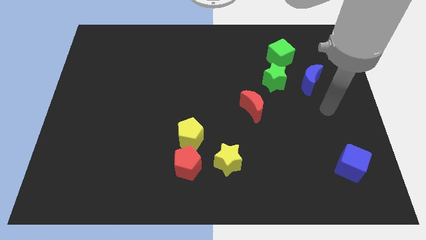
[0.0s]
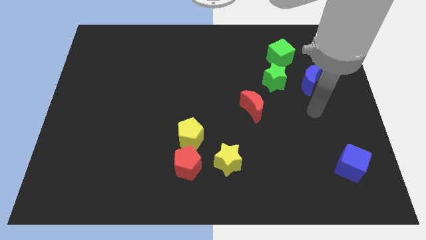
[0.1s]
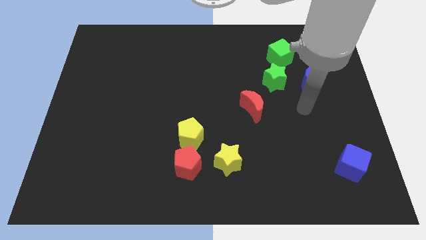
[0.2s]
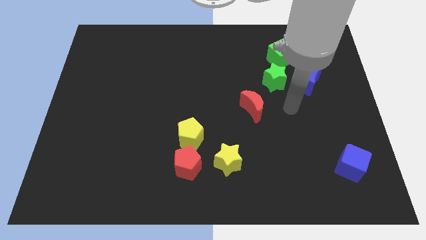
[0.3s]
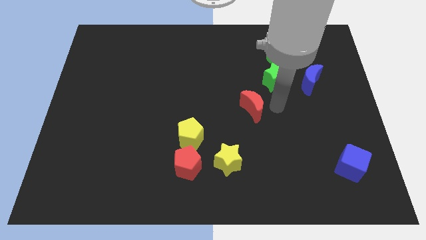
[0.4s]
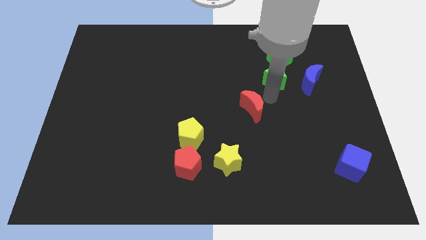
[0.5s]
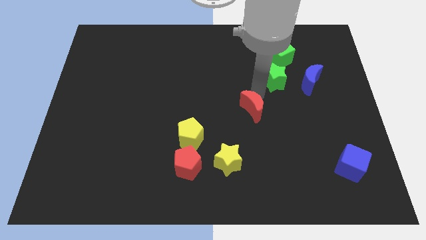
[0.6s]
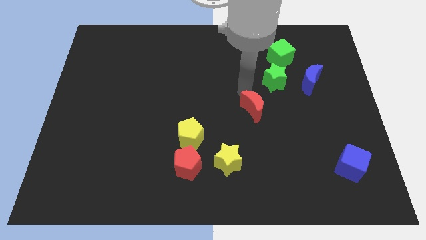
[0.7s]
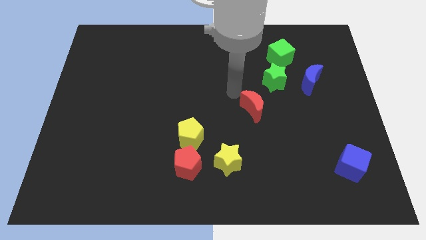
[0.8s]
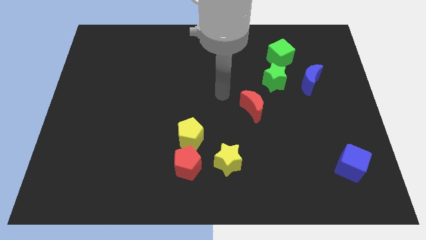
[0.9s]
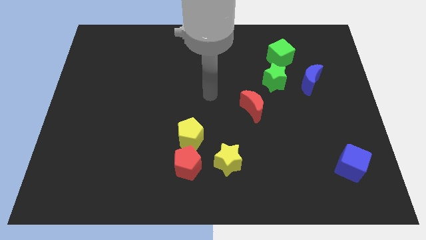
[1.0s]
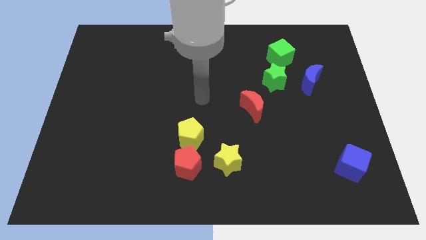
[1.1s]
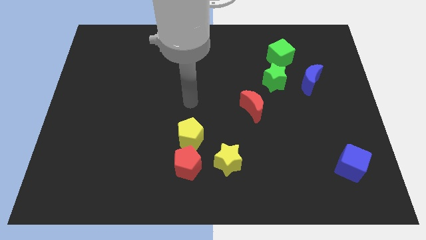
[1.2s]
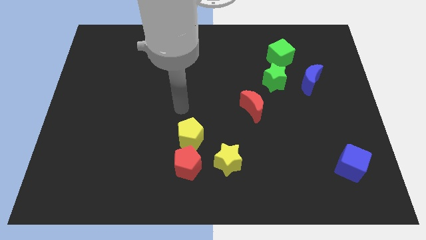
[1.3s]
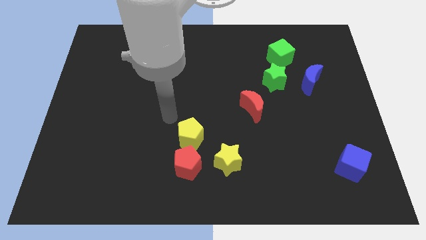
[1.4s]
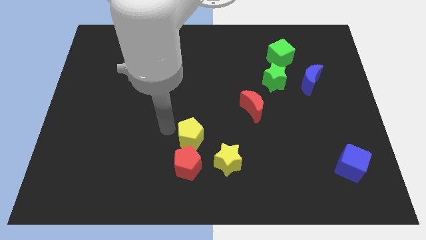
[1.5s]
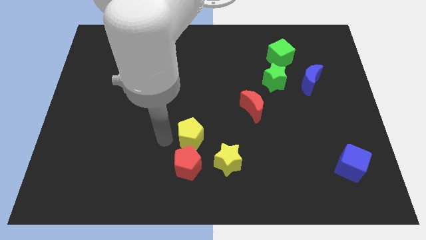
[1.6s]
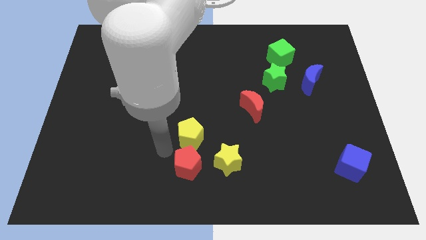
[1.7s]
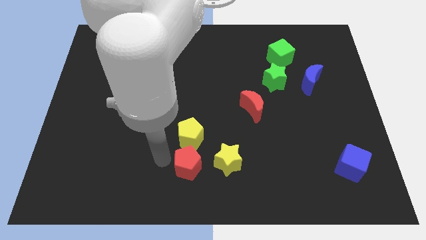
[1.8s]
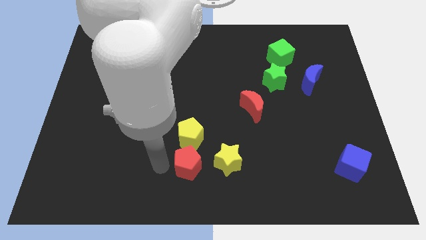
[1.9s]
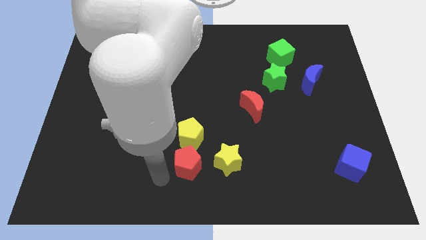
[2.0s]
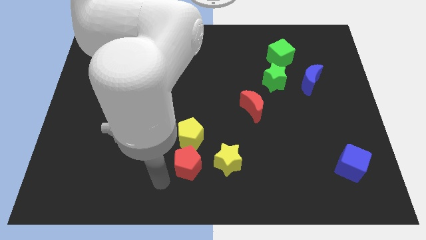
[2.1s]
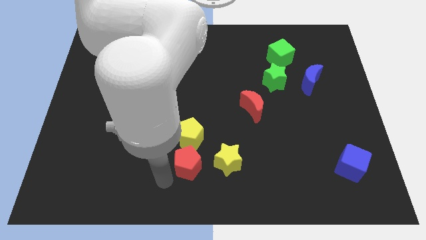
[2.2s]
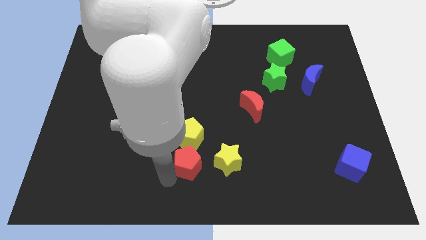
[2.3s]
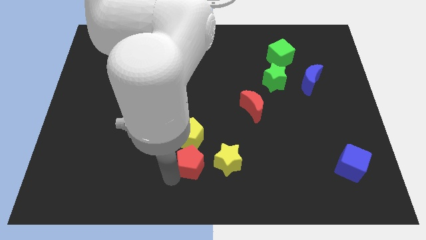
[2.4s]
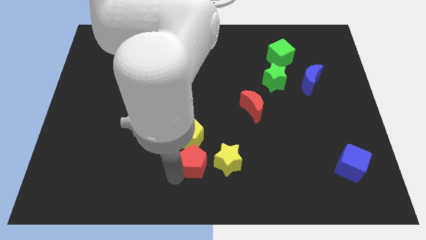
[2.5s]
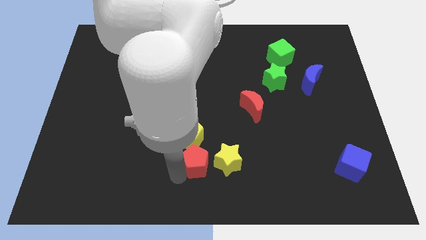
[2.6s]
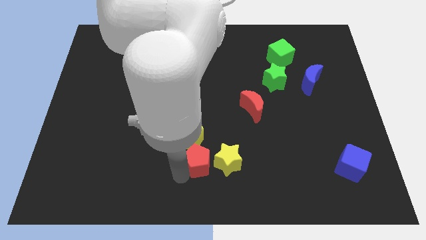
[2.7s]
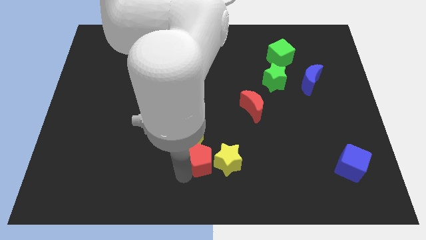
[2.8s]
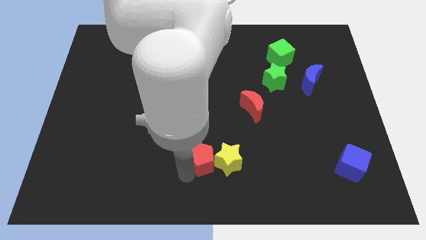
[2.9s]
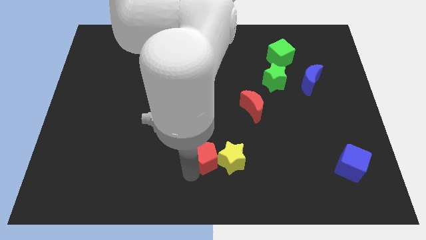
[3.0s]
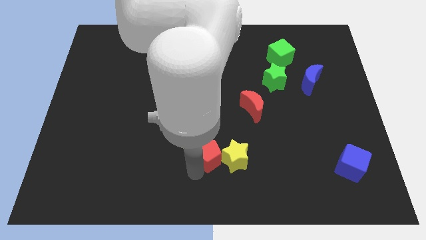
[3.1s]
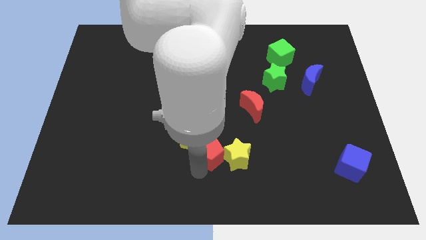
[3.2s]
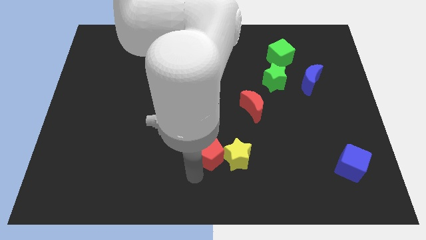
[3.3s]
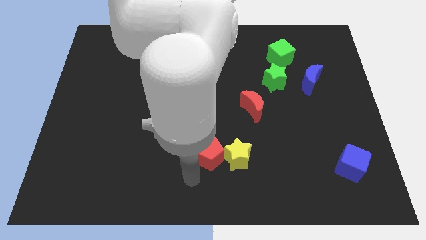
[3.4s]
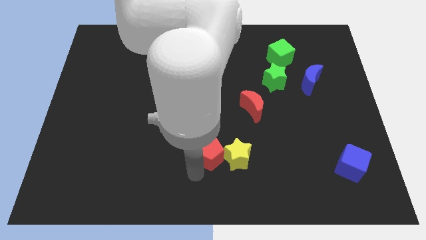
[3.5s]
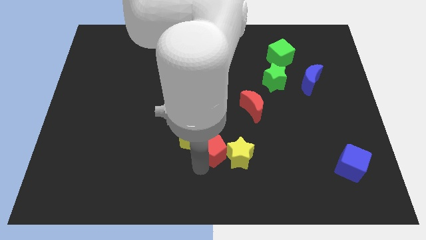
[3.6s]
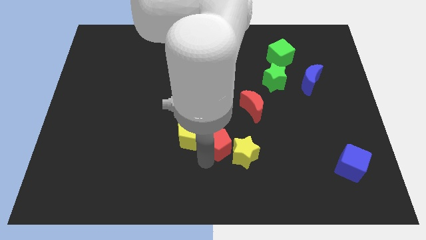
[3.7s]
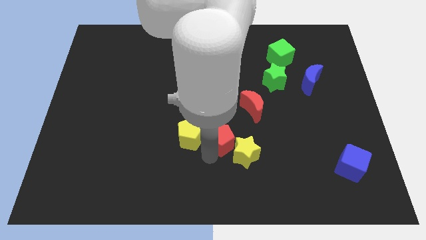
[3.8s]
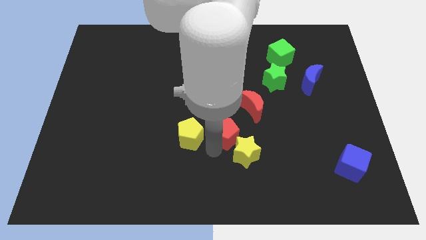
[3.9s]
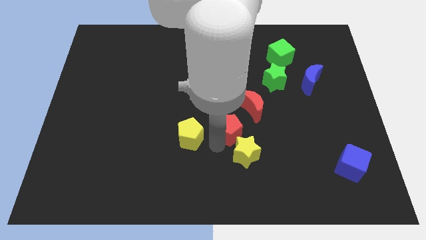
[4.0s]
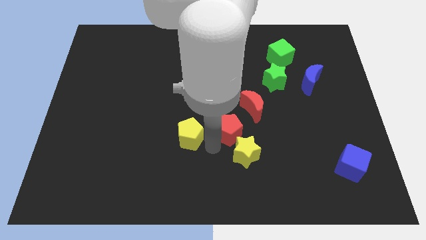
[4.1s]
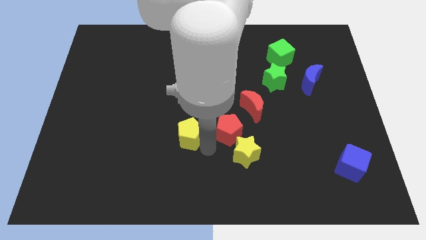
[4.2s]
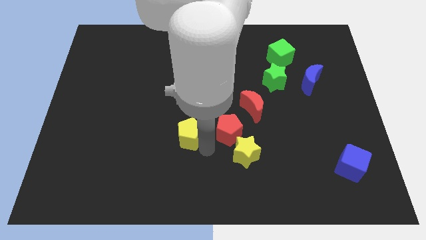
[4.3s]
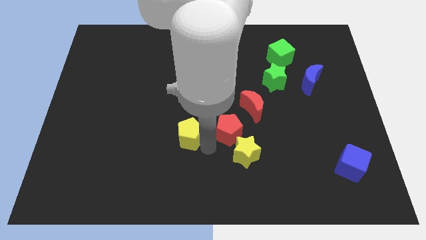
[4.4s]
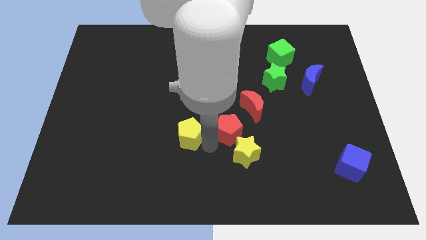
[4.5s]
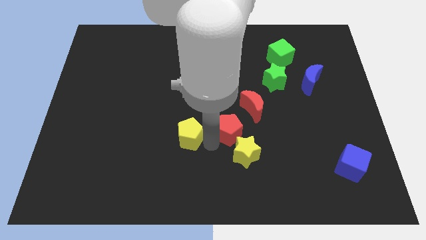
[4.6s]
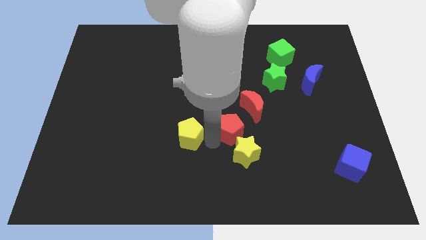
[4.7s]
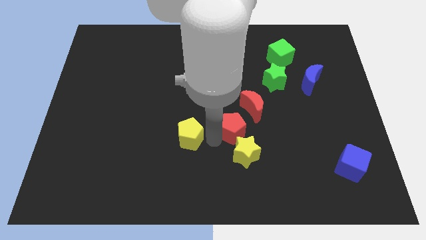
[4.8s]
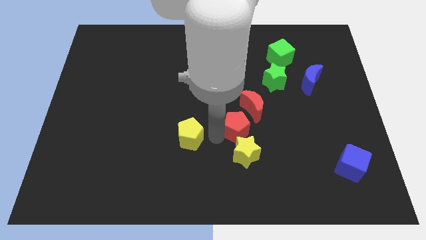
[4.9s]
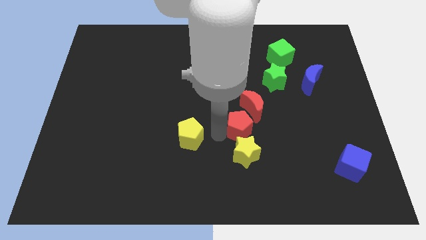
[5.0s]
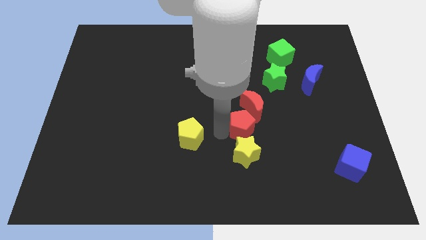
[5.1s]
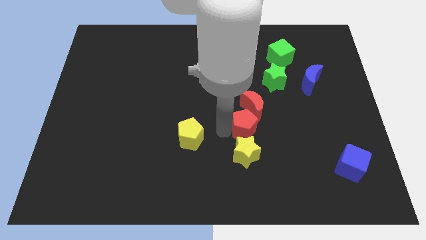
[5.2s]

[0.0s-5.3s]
put the red pentagon to the red moon

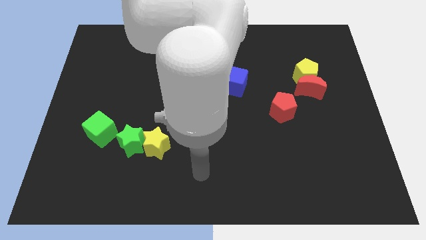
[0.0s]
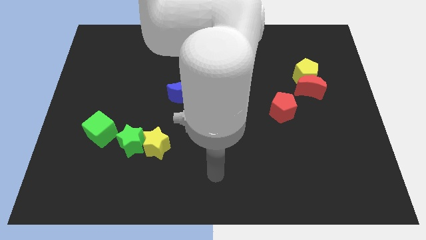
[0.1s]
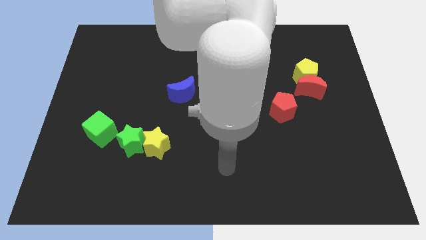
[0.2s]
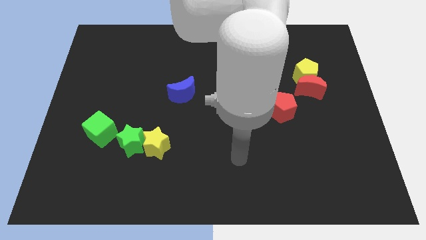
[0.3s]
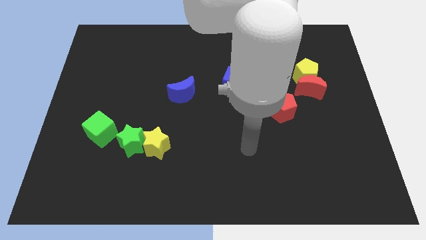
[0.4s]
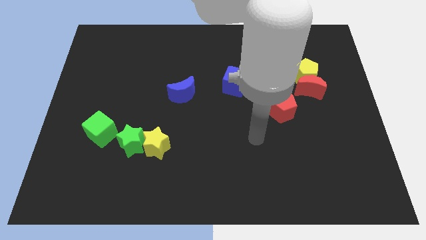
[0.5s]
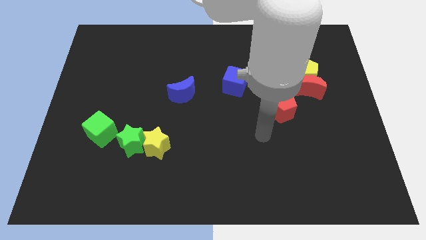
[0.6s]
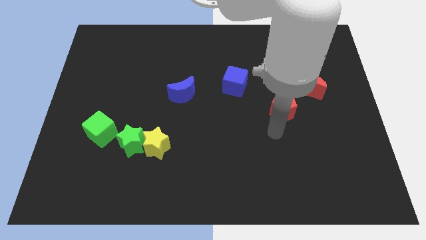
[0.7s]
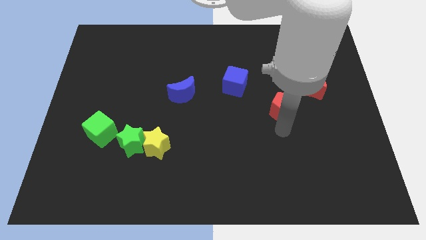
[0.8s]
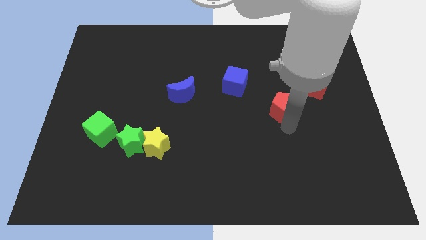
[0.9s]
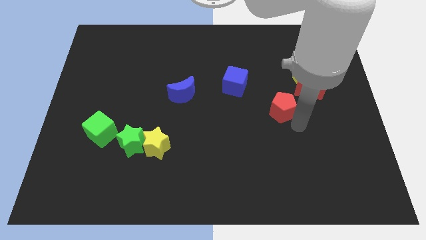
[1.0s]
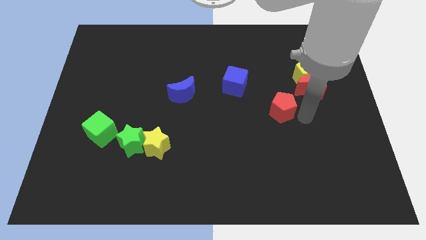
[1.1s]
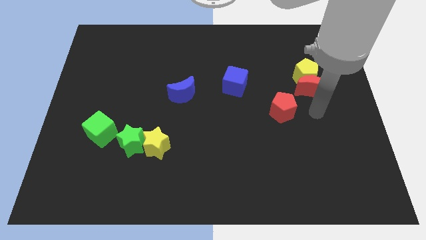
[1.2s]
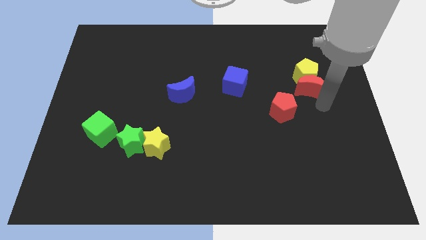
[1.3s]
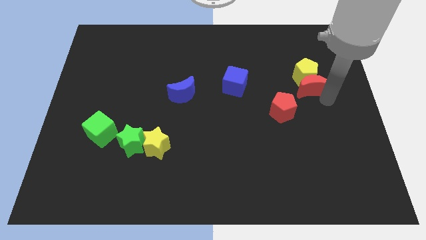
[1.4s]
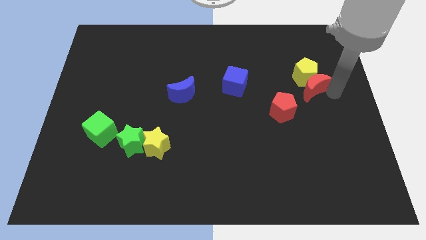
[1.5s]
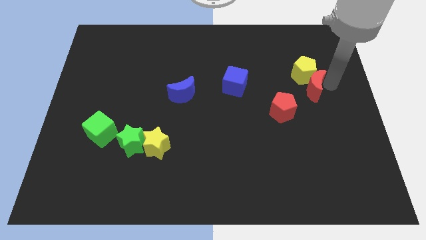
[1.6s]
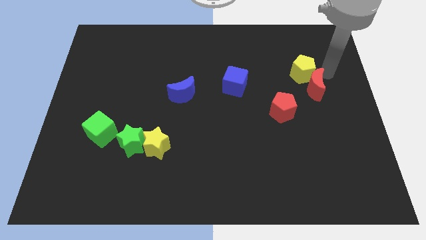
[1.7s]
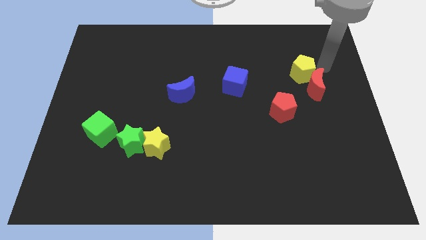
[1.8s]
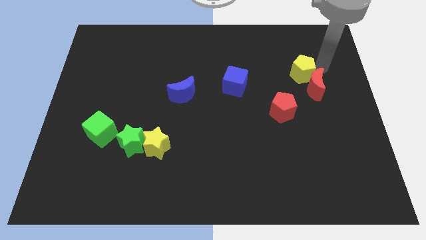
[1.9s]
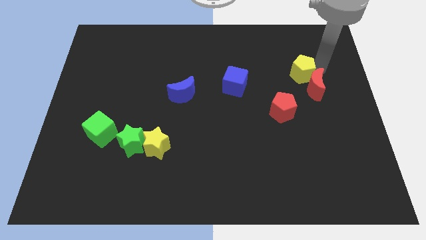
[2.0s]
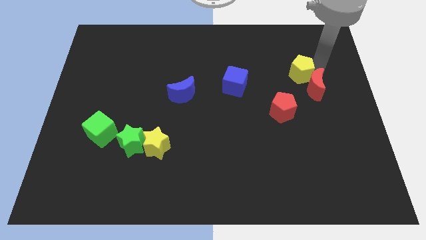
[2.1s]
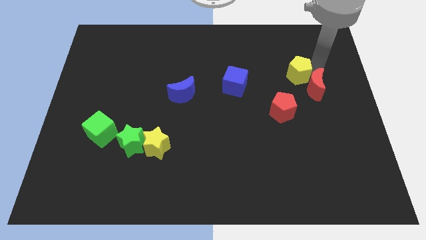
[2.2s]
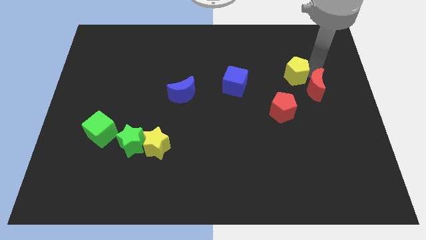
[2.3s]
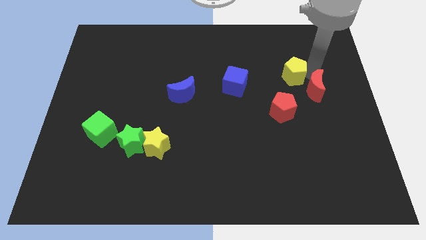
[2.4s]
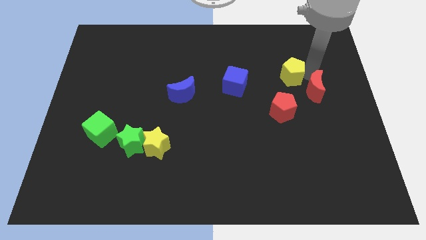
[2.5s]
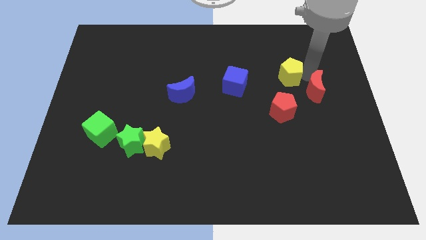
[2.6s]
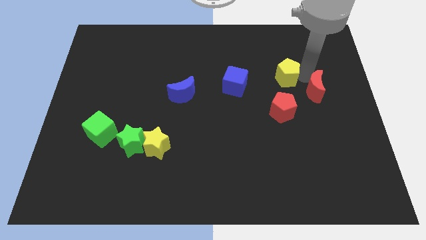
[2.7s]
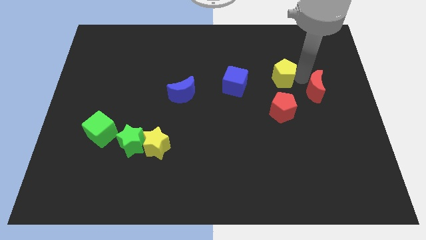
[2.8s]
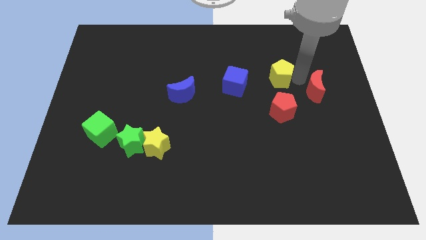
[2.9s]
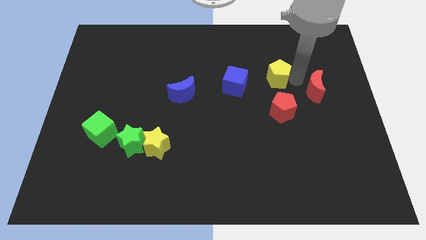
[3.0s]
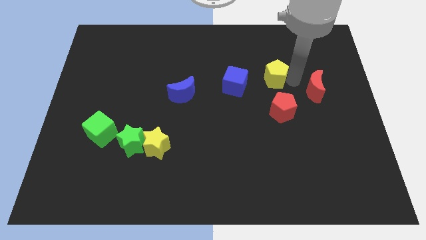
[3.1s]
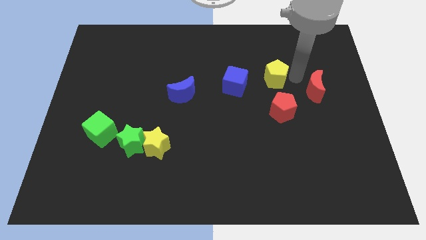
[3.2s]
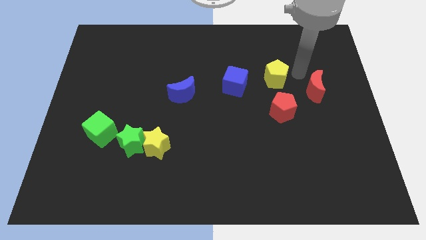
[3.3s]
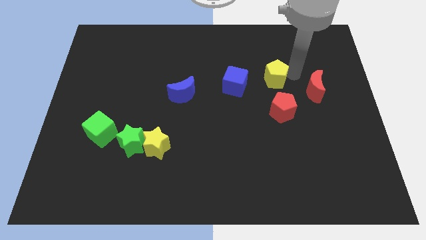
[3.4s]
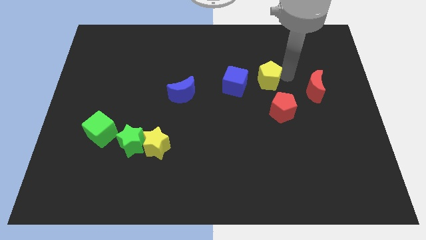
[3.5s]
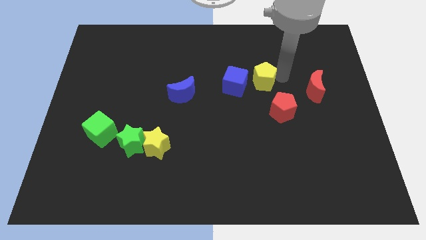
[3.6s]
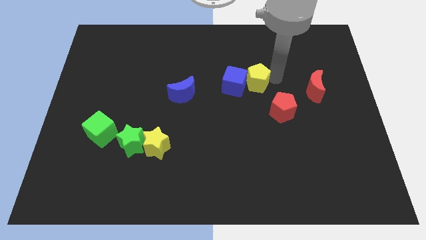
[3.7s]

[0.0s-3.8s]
slide the yellow pentagon close to the blue cube
